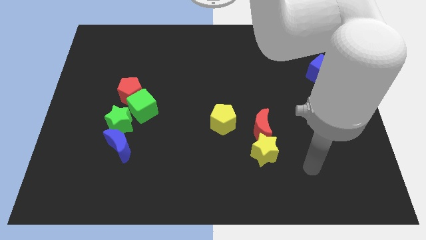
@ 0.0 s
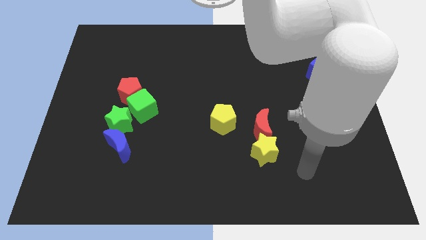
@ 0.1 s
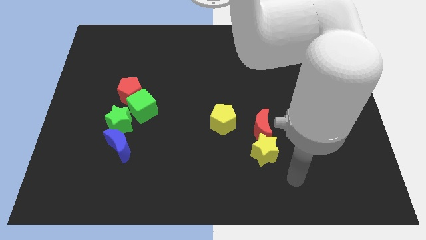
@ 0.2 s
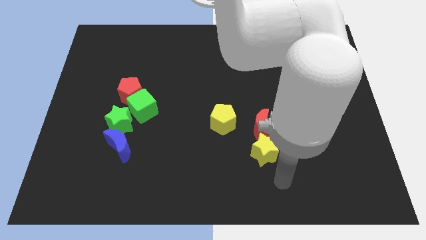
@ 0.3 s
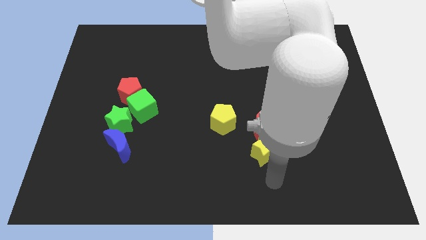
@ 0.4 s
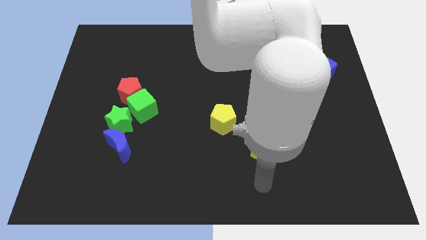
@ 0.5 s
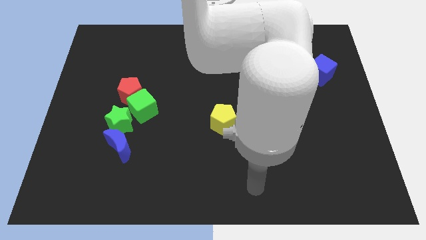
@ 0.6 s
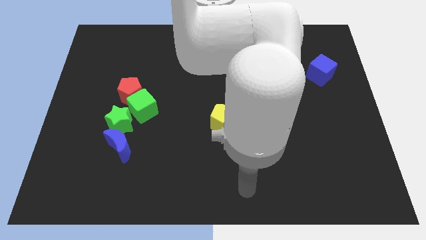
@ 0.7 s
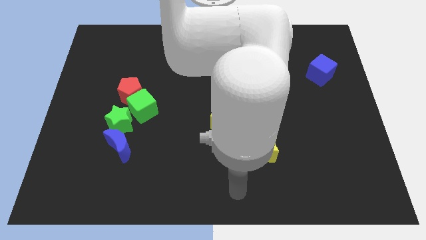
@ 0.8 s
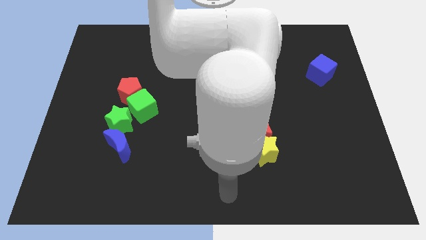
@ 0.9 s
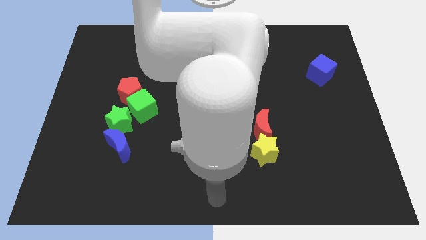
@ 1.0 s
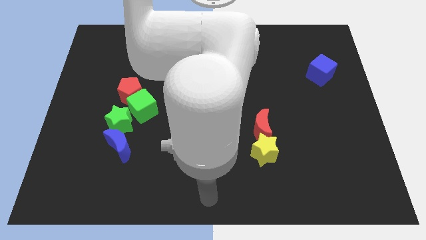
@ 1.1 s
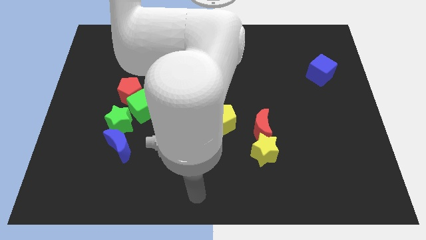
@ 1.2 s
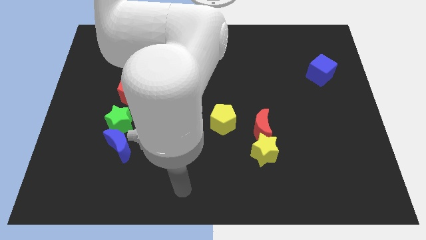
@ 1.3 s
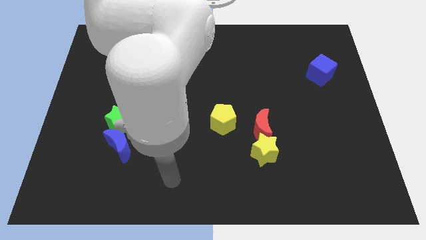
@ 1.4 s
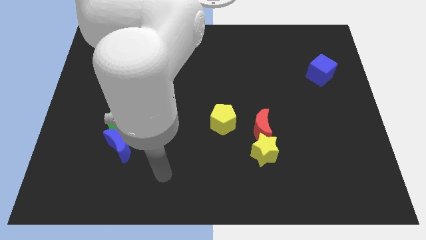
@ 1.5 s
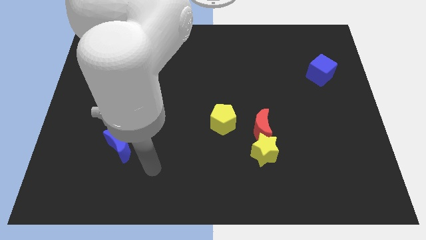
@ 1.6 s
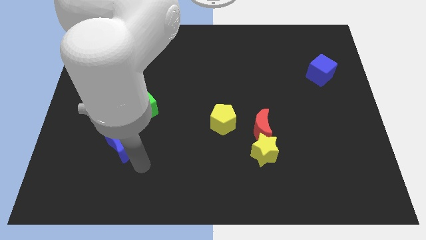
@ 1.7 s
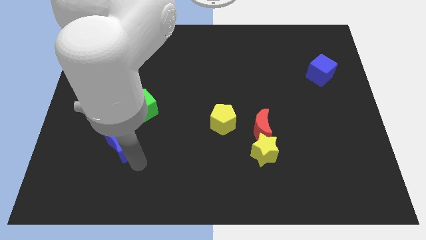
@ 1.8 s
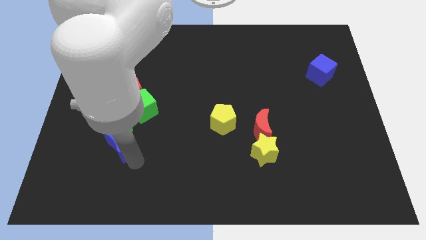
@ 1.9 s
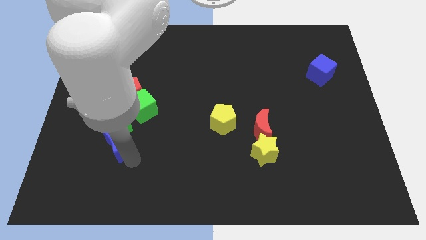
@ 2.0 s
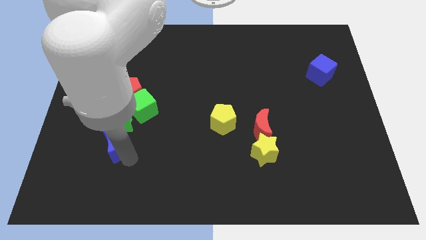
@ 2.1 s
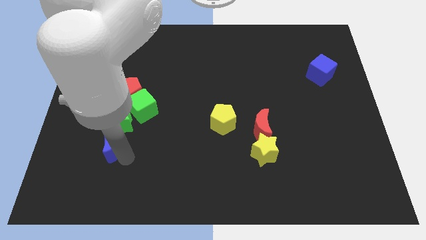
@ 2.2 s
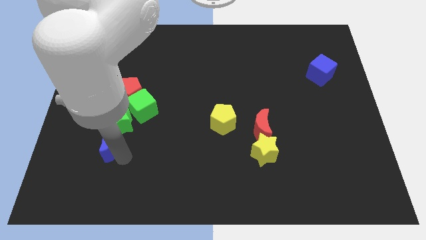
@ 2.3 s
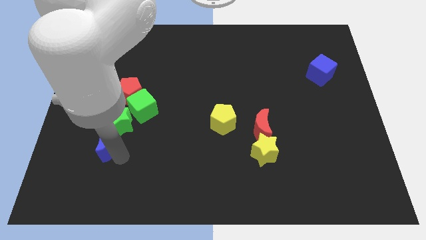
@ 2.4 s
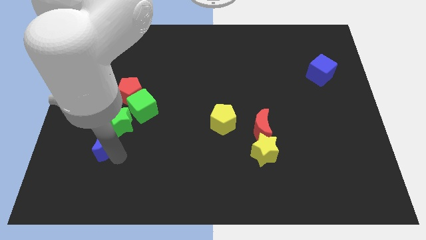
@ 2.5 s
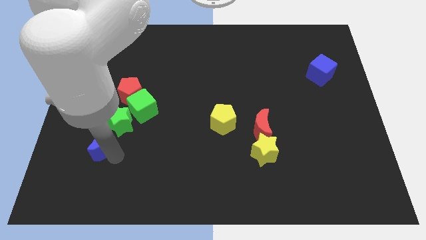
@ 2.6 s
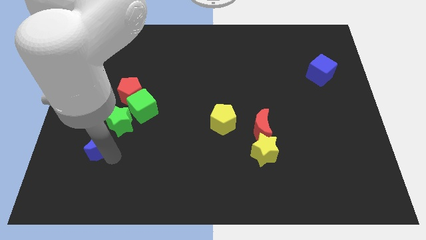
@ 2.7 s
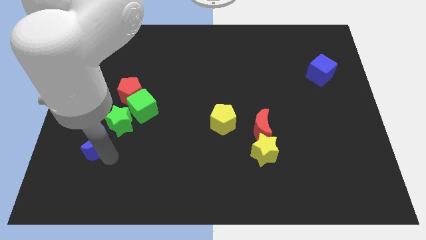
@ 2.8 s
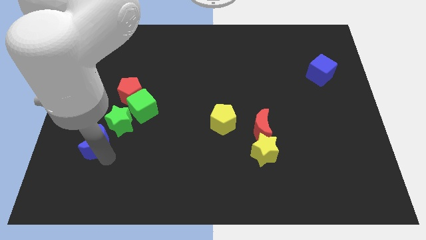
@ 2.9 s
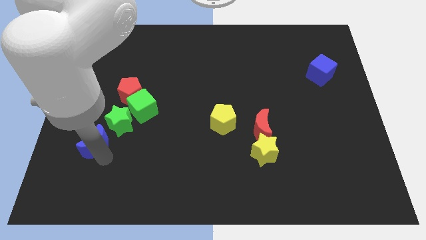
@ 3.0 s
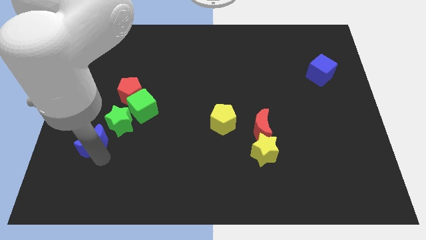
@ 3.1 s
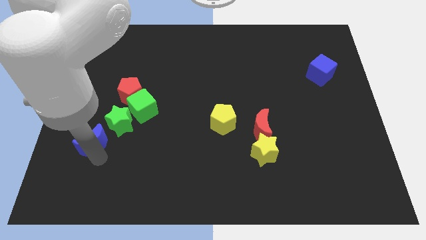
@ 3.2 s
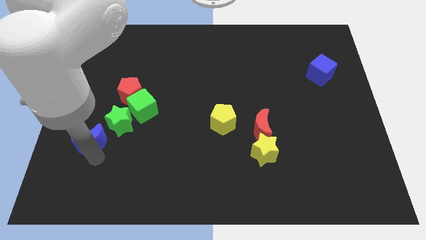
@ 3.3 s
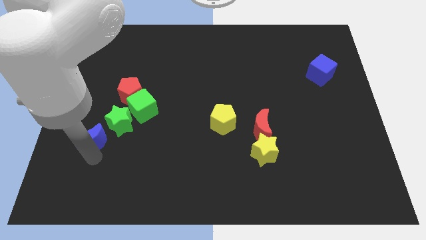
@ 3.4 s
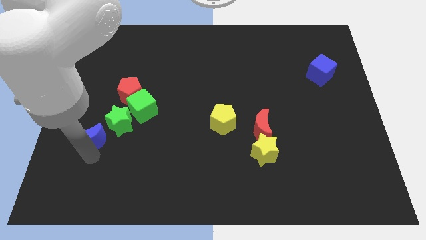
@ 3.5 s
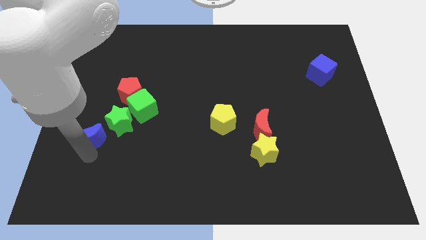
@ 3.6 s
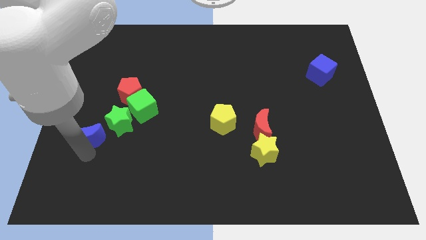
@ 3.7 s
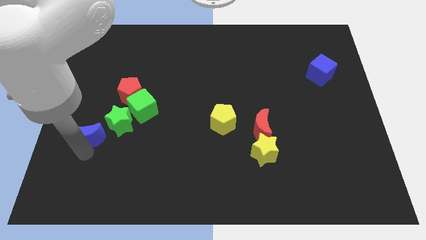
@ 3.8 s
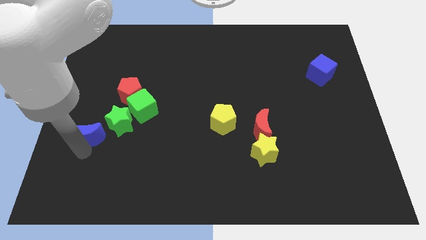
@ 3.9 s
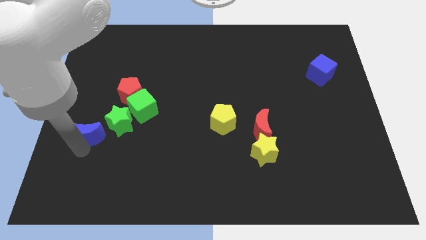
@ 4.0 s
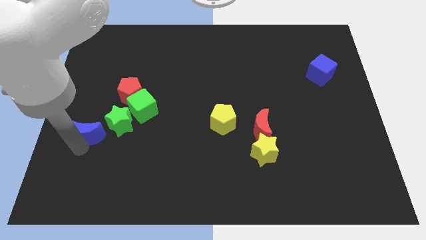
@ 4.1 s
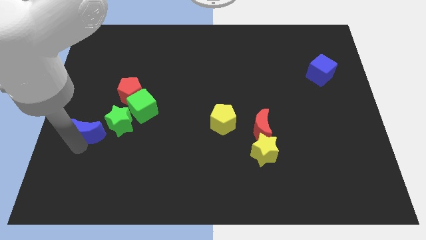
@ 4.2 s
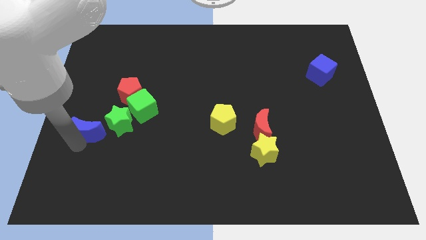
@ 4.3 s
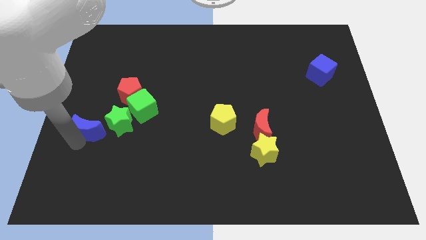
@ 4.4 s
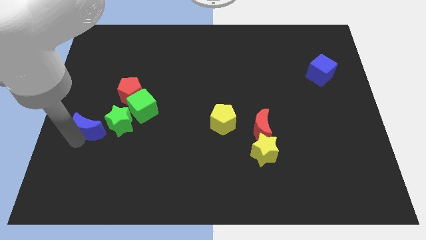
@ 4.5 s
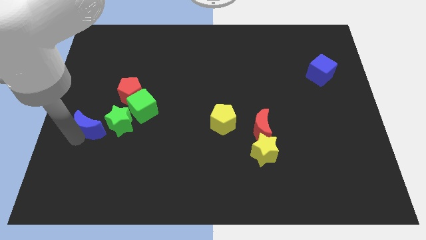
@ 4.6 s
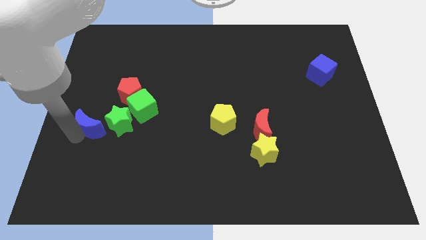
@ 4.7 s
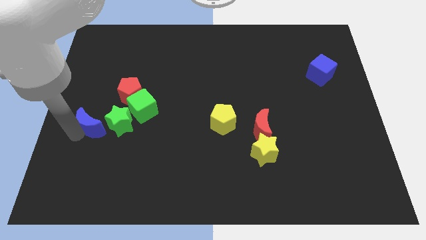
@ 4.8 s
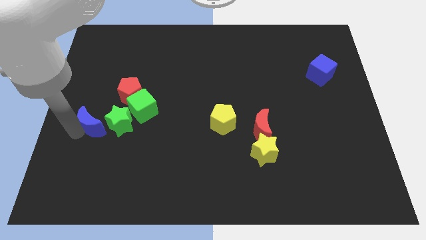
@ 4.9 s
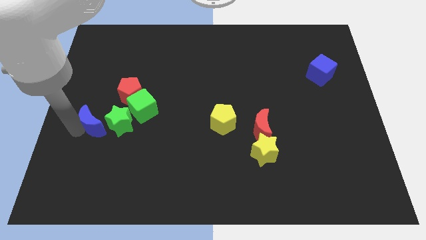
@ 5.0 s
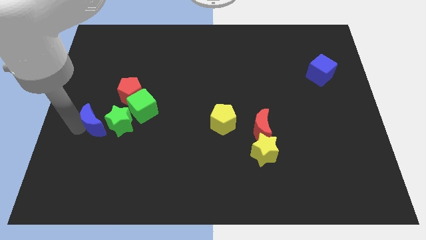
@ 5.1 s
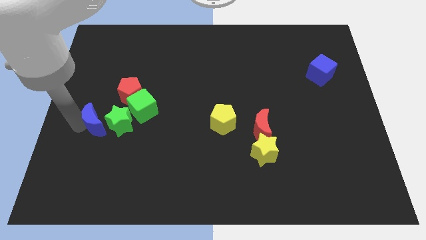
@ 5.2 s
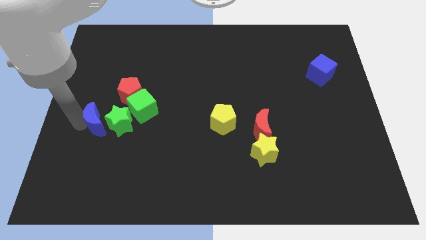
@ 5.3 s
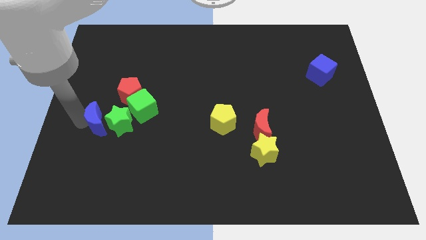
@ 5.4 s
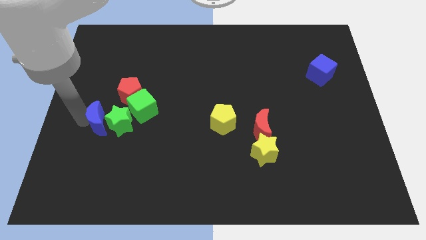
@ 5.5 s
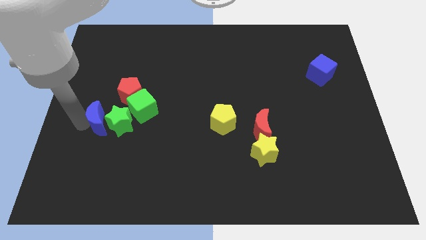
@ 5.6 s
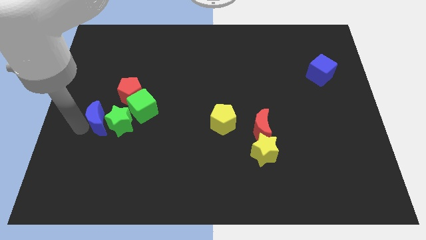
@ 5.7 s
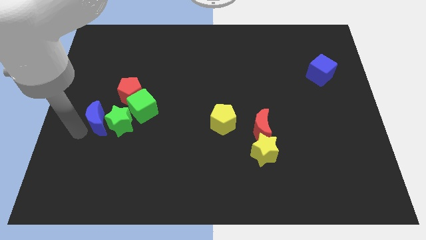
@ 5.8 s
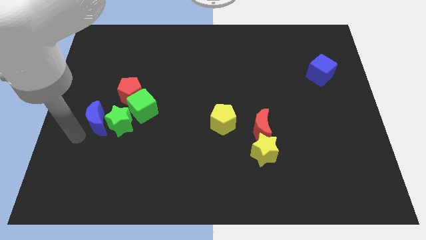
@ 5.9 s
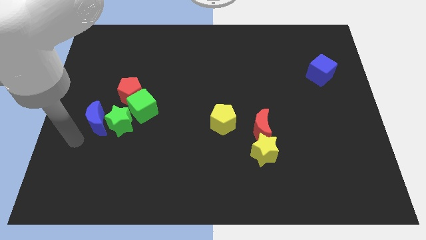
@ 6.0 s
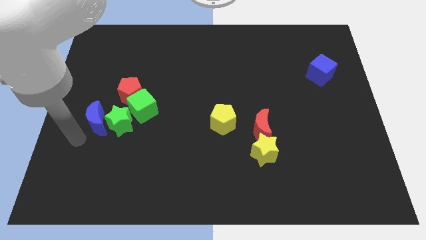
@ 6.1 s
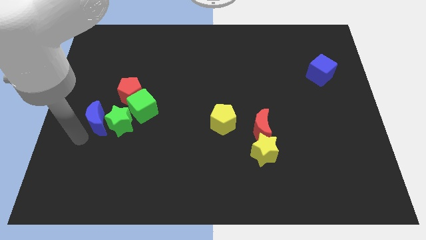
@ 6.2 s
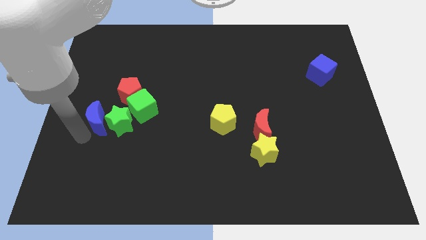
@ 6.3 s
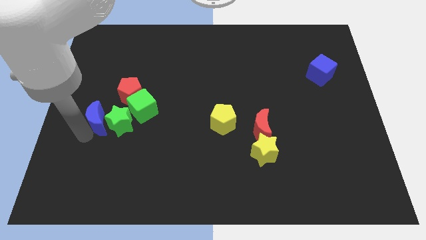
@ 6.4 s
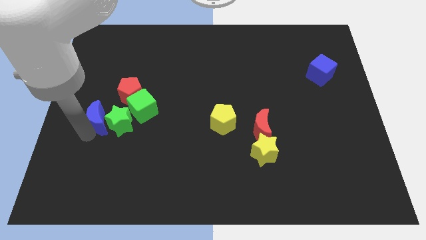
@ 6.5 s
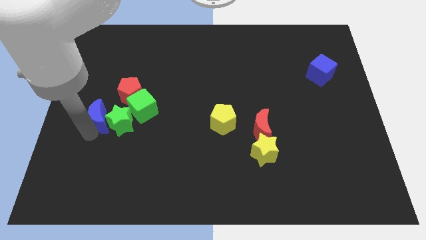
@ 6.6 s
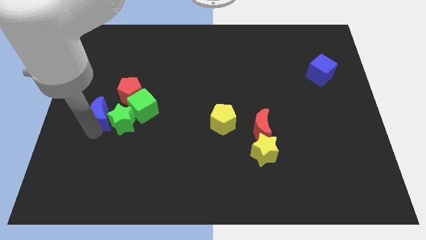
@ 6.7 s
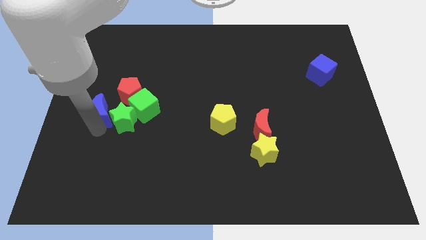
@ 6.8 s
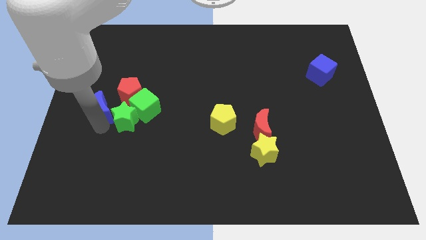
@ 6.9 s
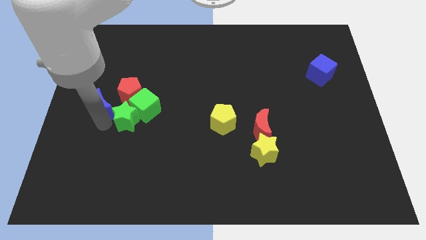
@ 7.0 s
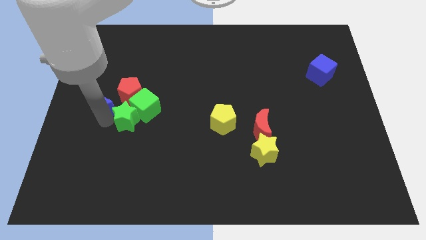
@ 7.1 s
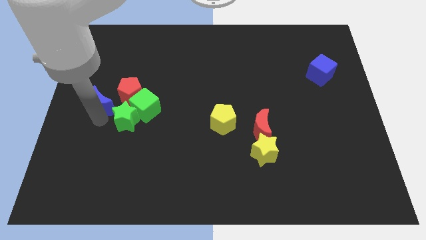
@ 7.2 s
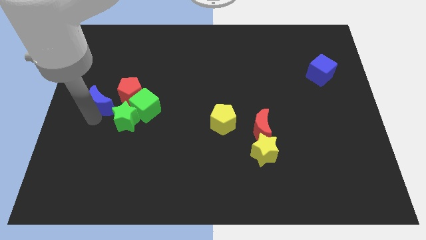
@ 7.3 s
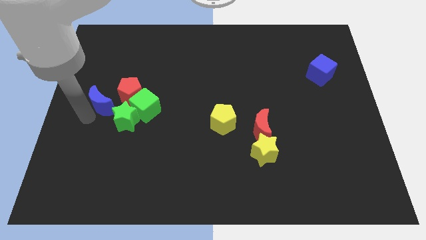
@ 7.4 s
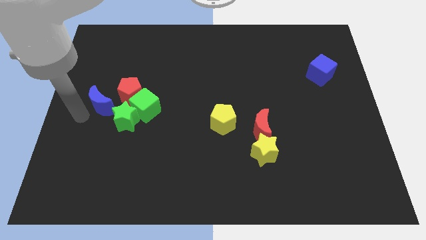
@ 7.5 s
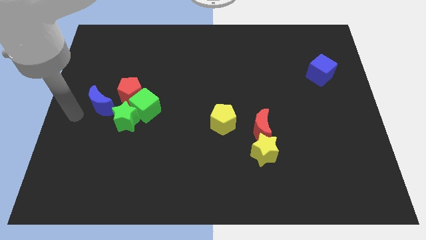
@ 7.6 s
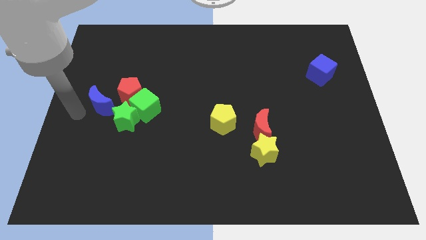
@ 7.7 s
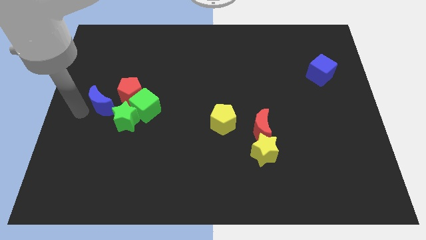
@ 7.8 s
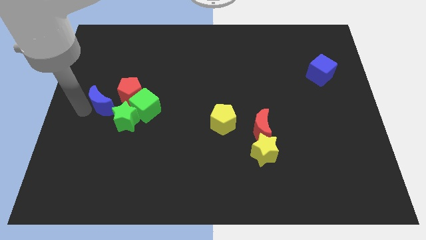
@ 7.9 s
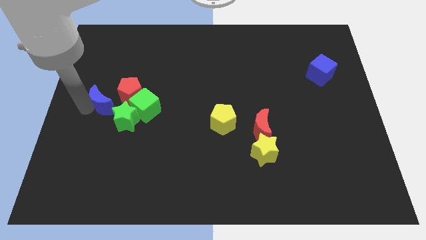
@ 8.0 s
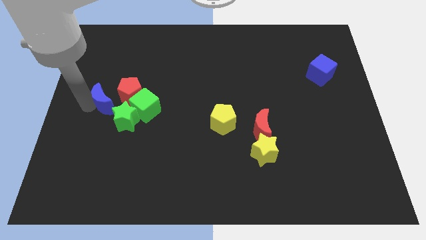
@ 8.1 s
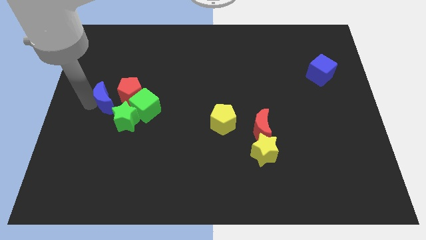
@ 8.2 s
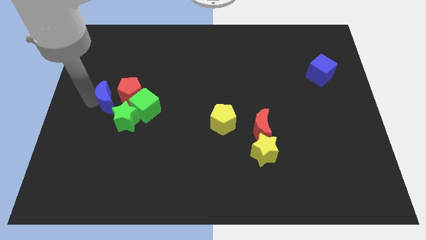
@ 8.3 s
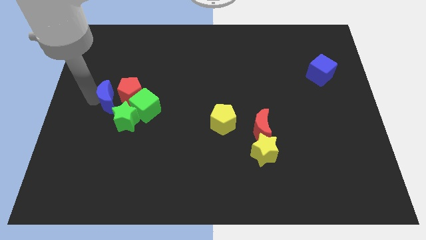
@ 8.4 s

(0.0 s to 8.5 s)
put the blue moon next to the red pentagon
